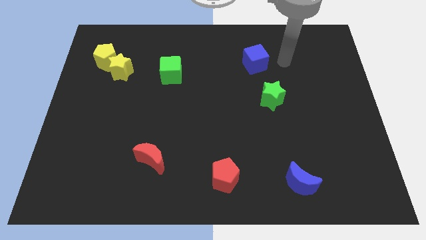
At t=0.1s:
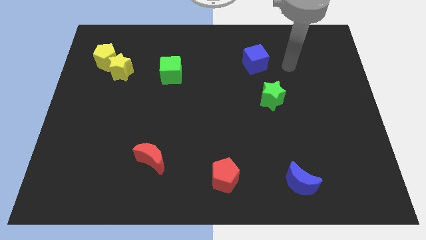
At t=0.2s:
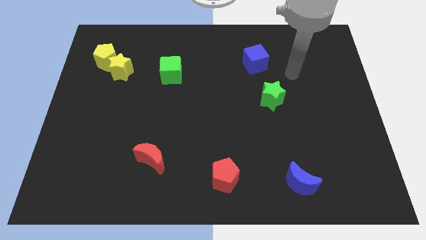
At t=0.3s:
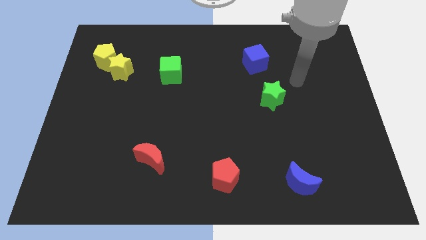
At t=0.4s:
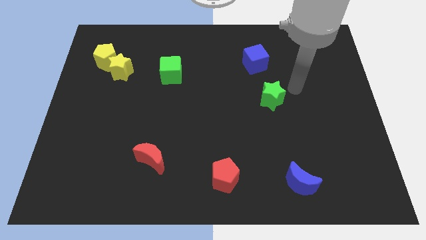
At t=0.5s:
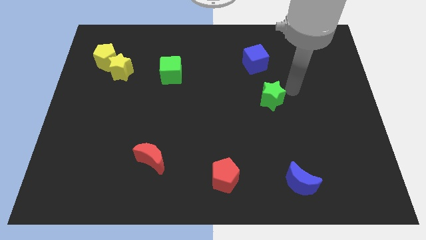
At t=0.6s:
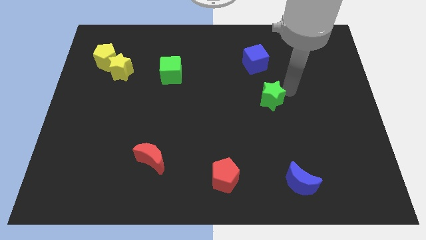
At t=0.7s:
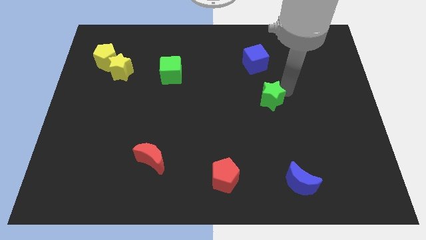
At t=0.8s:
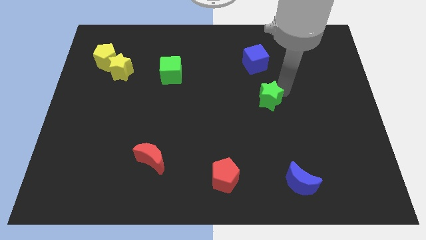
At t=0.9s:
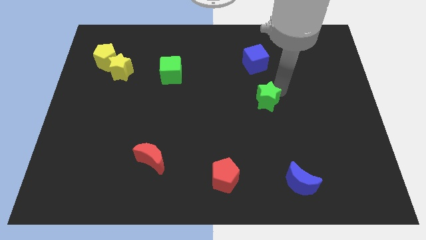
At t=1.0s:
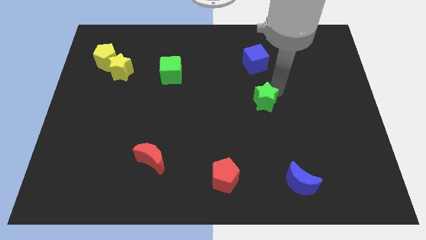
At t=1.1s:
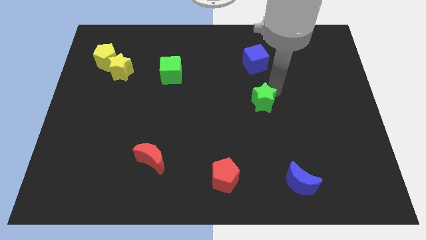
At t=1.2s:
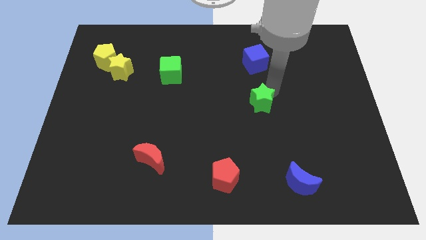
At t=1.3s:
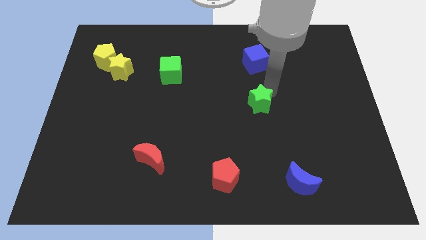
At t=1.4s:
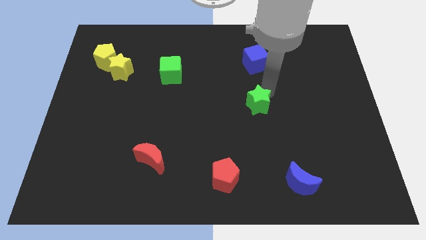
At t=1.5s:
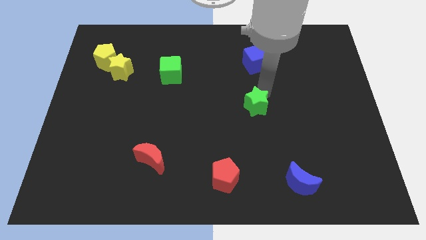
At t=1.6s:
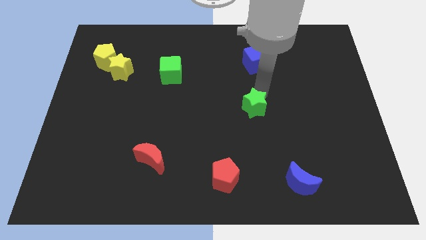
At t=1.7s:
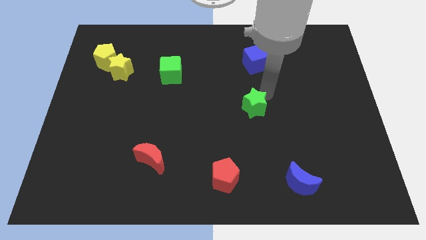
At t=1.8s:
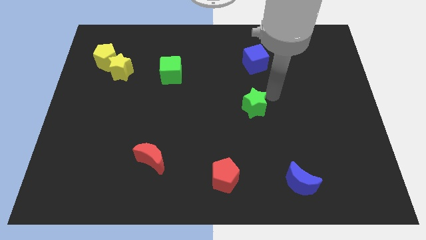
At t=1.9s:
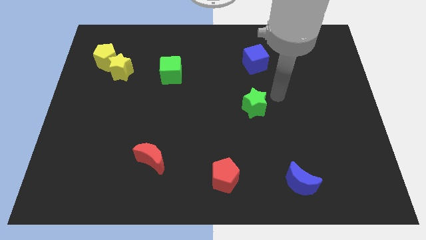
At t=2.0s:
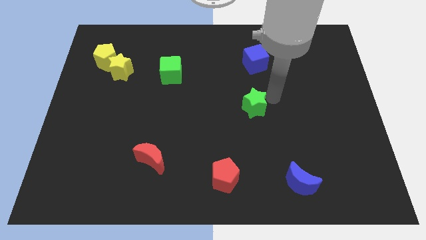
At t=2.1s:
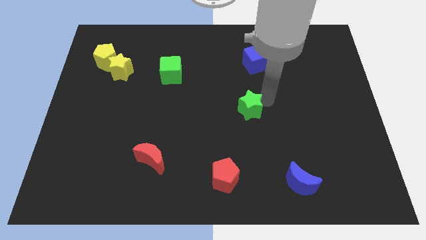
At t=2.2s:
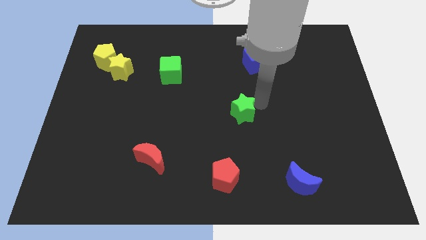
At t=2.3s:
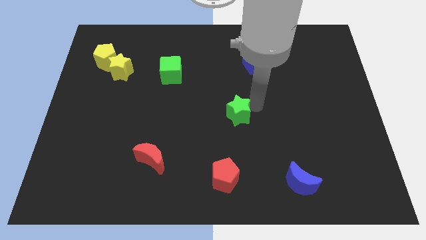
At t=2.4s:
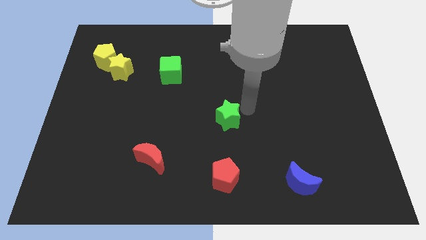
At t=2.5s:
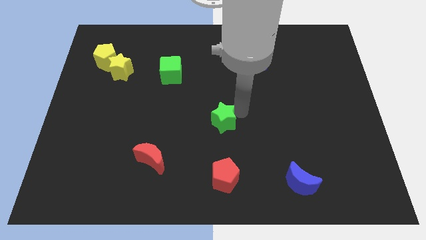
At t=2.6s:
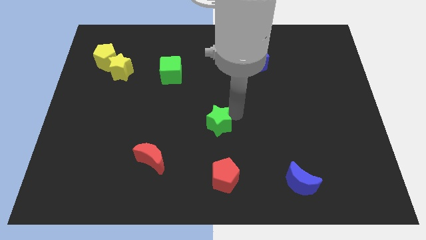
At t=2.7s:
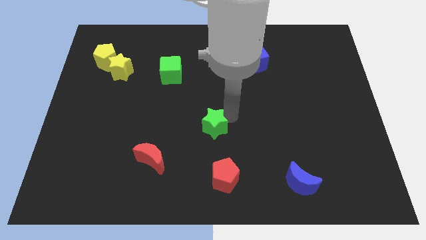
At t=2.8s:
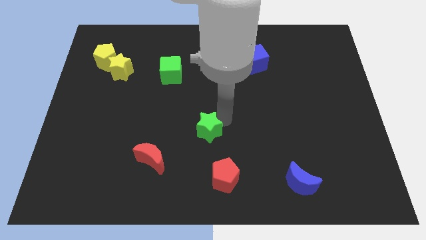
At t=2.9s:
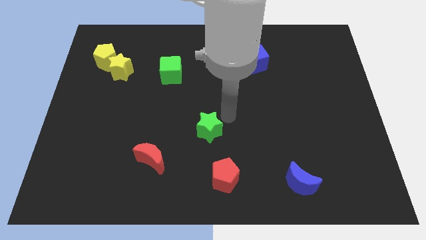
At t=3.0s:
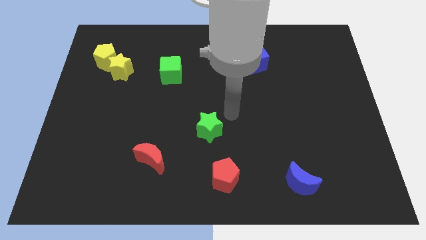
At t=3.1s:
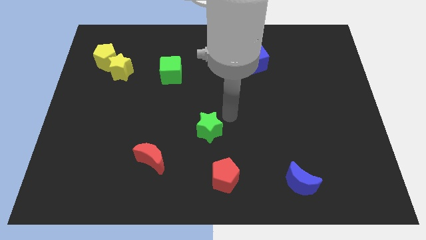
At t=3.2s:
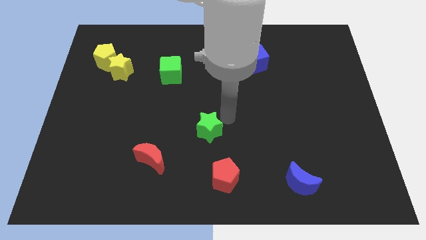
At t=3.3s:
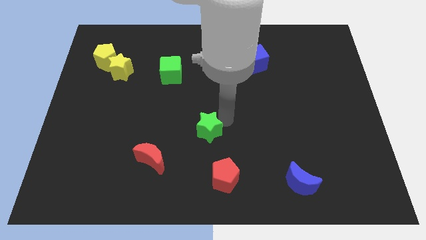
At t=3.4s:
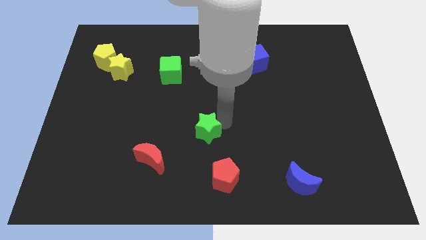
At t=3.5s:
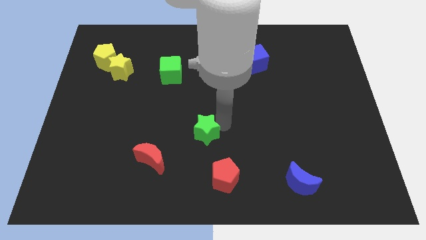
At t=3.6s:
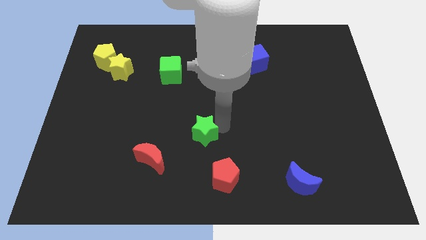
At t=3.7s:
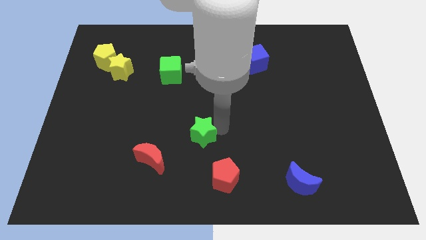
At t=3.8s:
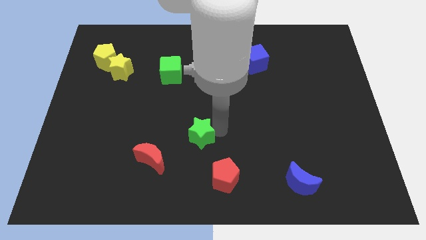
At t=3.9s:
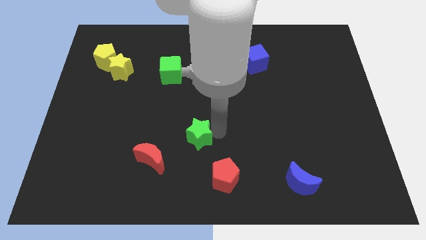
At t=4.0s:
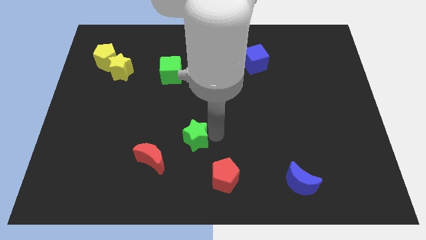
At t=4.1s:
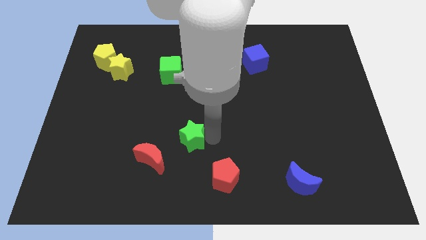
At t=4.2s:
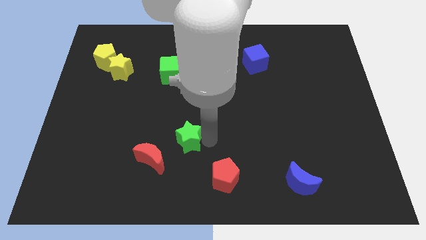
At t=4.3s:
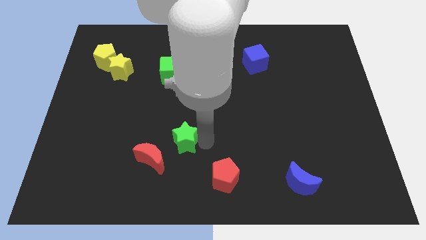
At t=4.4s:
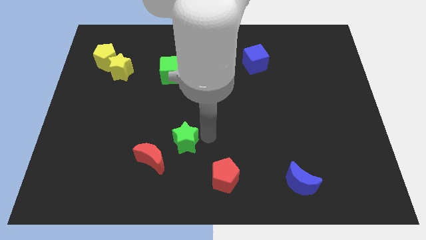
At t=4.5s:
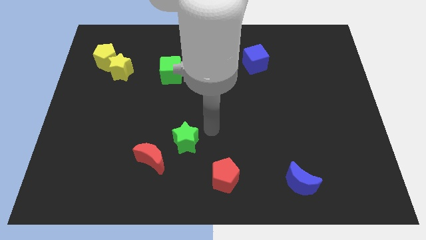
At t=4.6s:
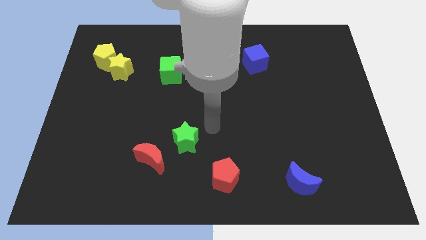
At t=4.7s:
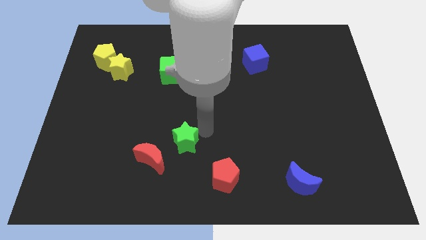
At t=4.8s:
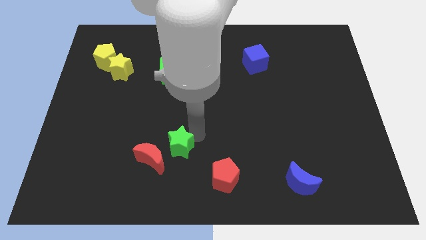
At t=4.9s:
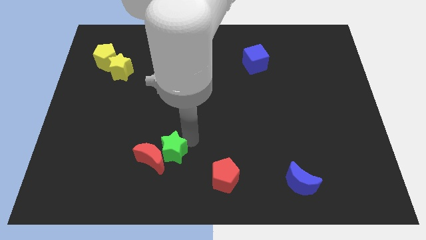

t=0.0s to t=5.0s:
slide the green star close to the red moon

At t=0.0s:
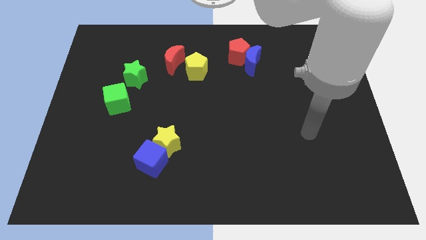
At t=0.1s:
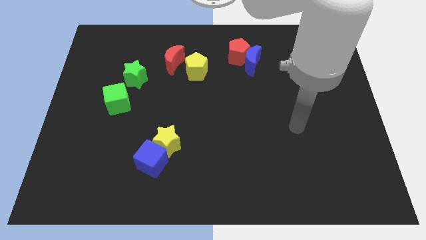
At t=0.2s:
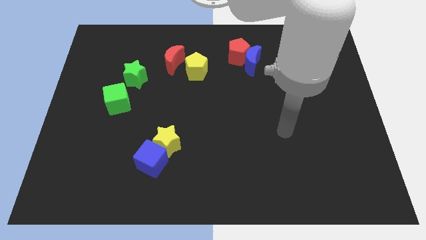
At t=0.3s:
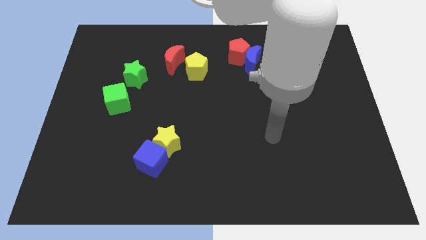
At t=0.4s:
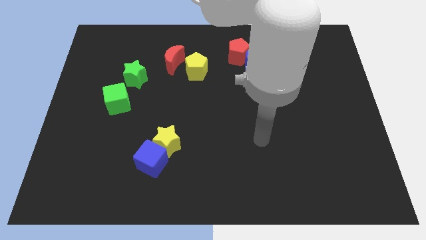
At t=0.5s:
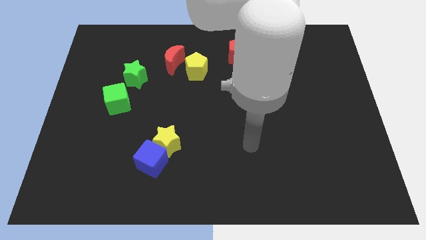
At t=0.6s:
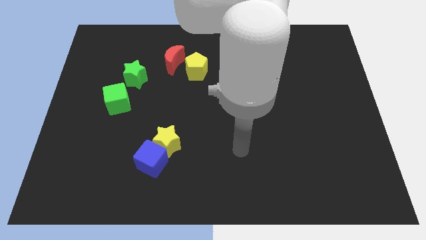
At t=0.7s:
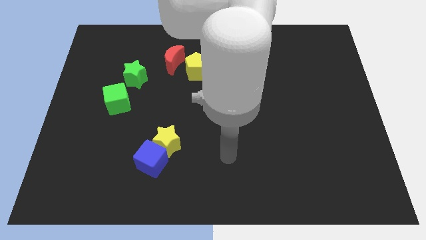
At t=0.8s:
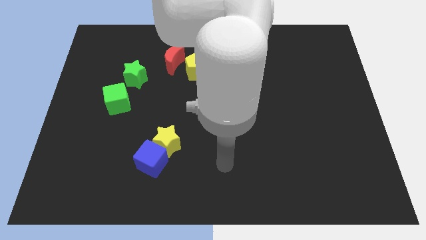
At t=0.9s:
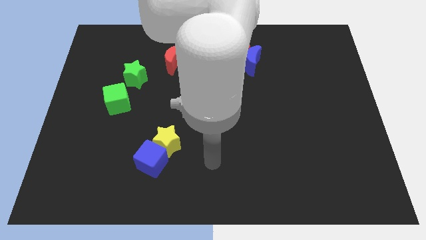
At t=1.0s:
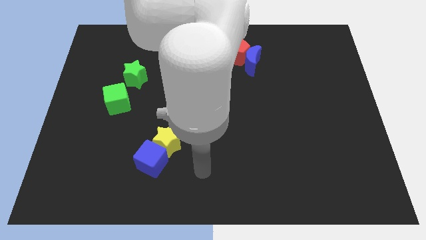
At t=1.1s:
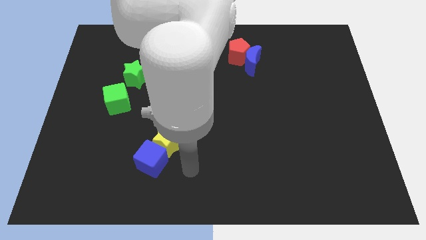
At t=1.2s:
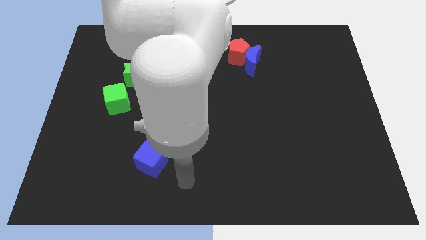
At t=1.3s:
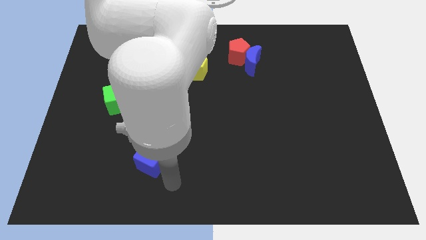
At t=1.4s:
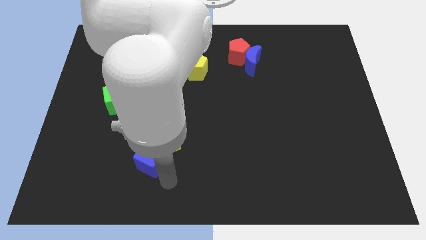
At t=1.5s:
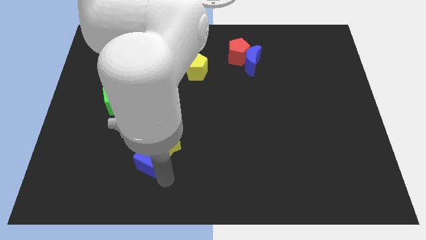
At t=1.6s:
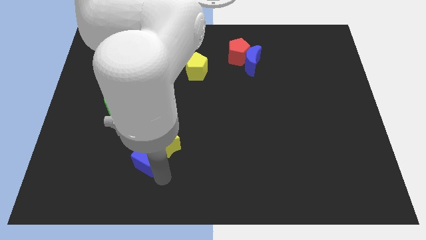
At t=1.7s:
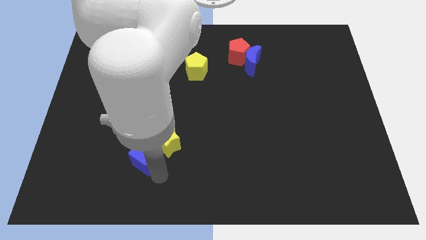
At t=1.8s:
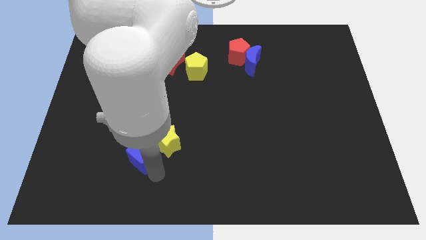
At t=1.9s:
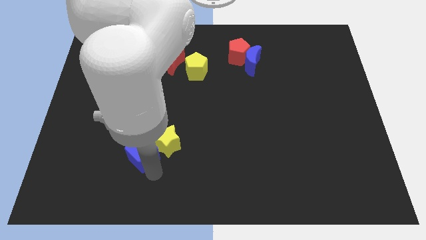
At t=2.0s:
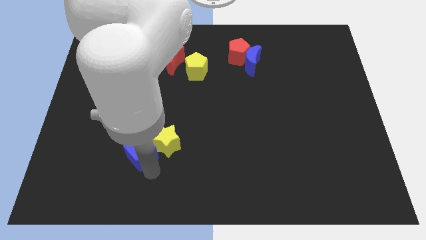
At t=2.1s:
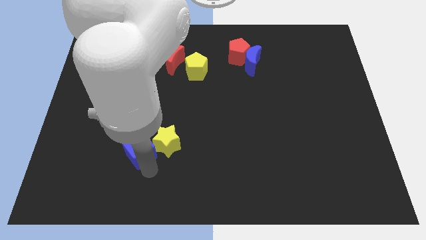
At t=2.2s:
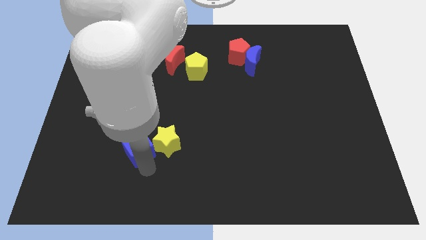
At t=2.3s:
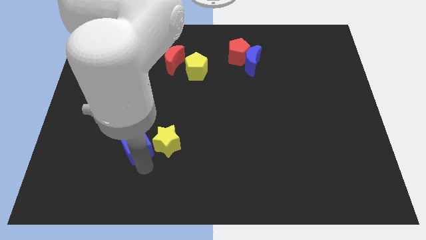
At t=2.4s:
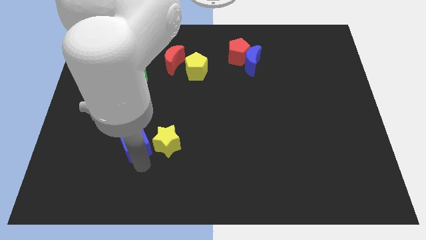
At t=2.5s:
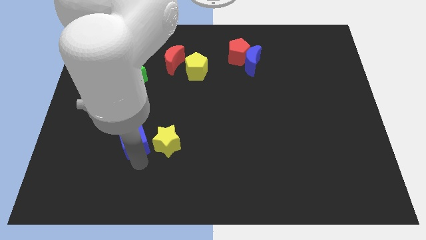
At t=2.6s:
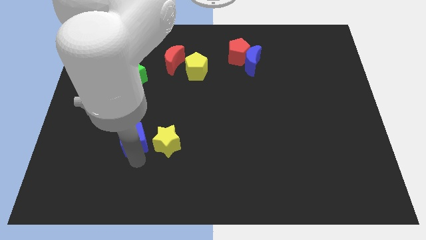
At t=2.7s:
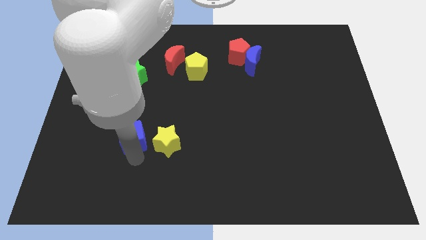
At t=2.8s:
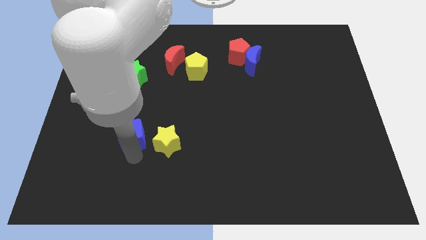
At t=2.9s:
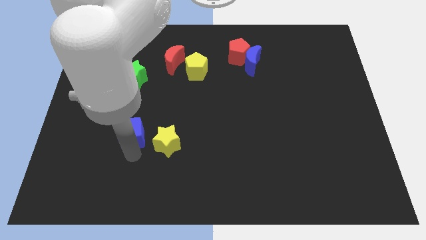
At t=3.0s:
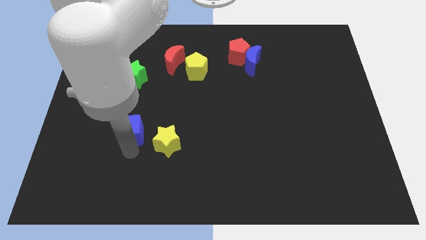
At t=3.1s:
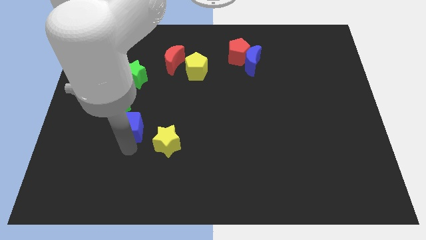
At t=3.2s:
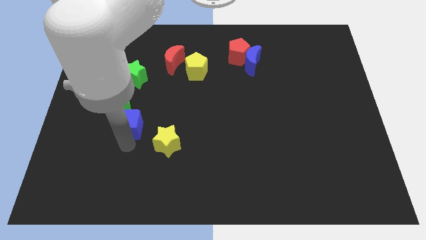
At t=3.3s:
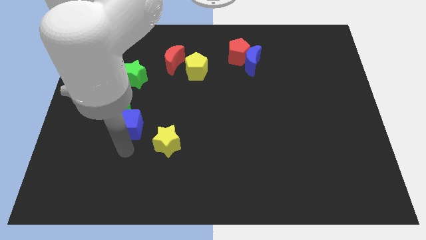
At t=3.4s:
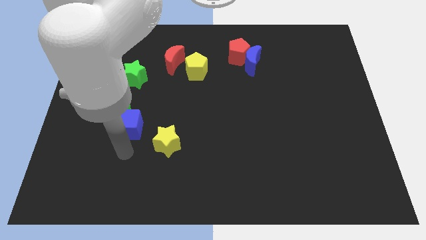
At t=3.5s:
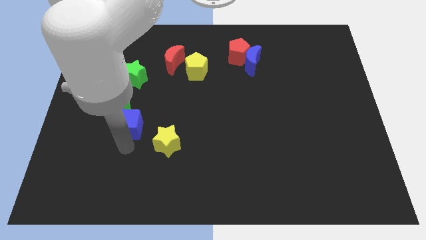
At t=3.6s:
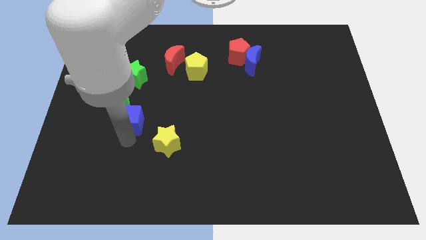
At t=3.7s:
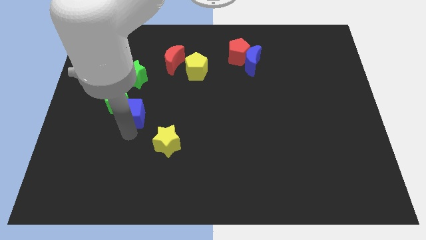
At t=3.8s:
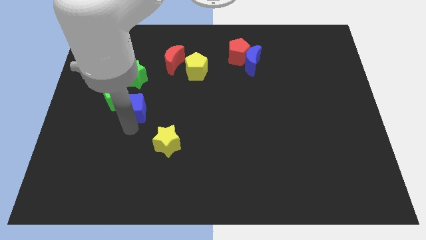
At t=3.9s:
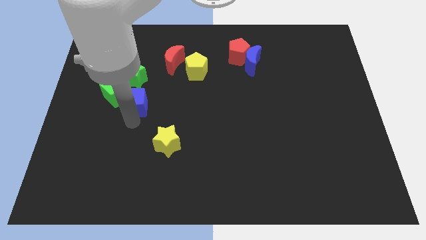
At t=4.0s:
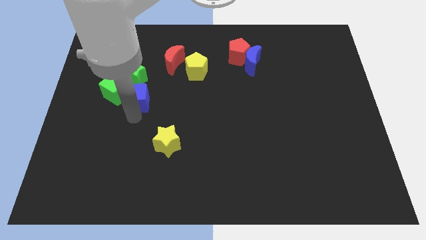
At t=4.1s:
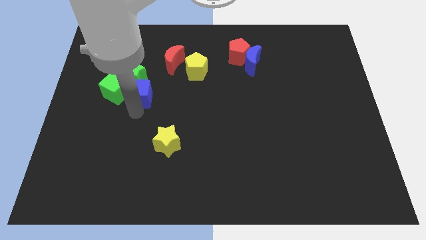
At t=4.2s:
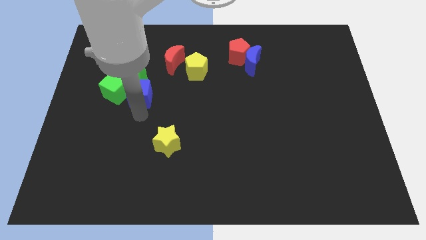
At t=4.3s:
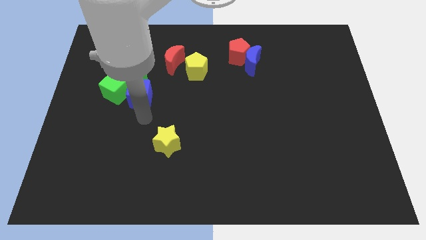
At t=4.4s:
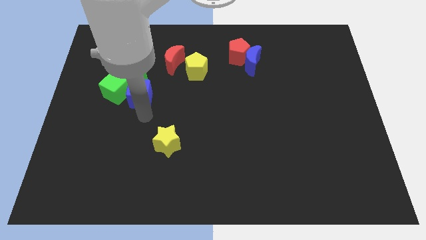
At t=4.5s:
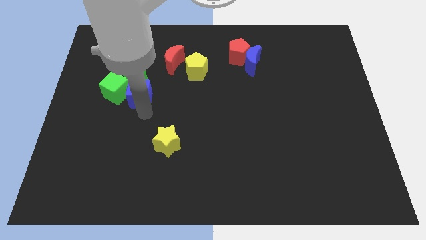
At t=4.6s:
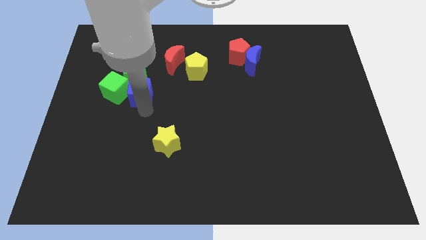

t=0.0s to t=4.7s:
push the blue cube towards the green star
